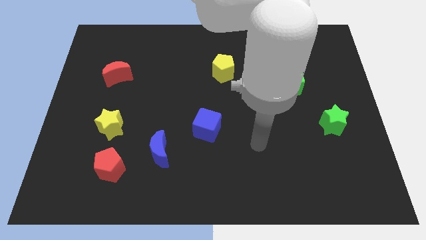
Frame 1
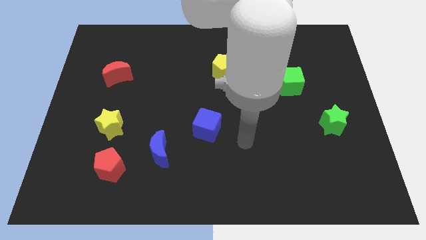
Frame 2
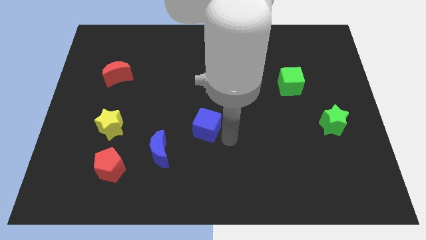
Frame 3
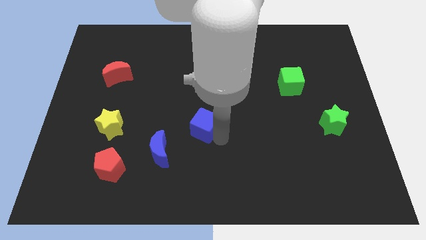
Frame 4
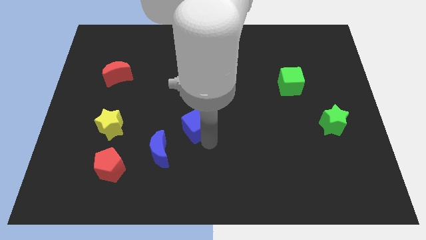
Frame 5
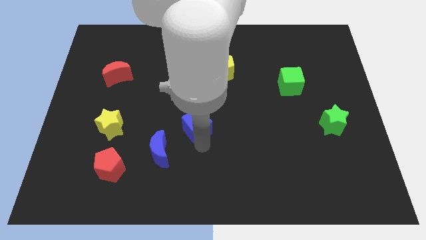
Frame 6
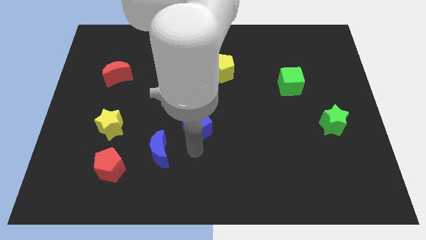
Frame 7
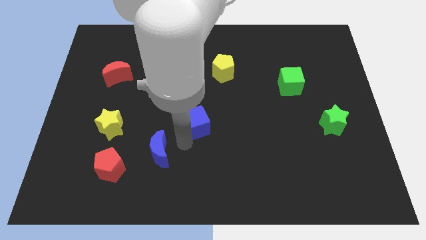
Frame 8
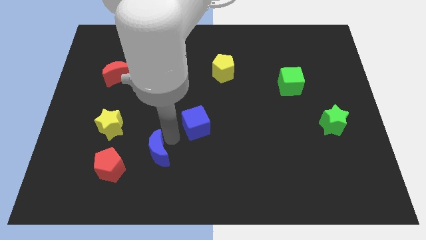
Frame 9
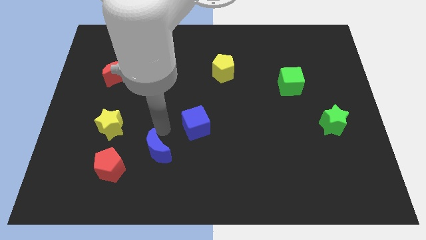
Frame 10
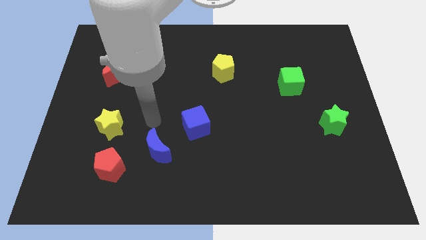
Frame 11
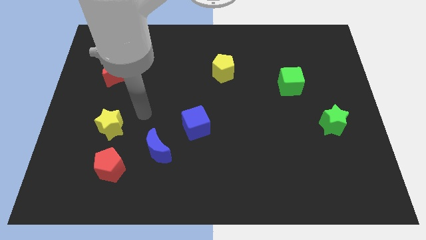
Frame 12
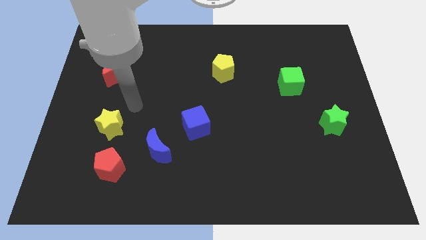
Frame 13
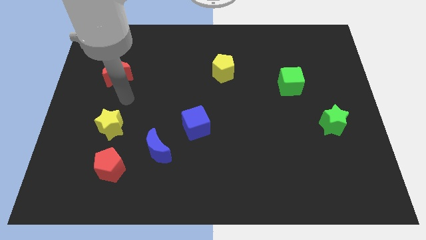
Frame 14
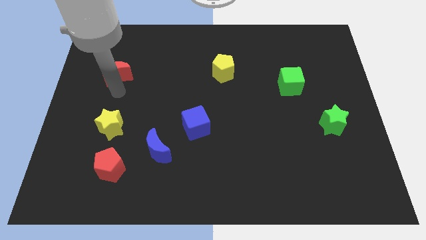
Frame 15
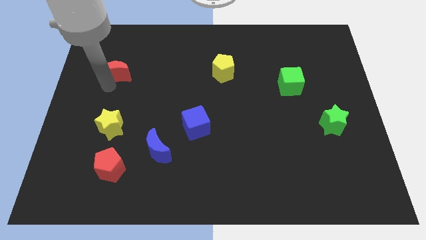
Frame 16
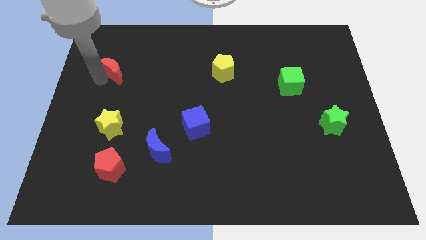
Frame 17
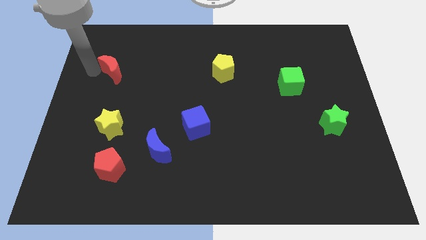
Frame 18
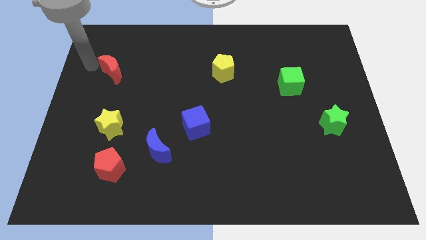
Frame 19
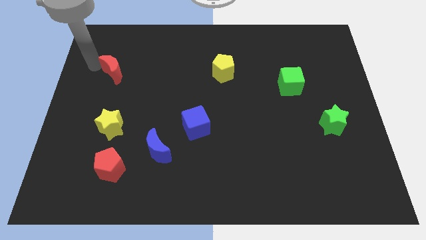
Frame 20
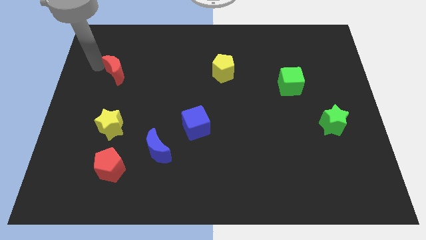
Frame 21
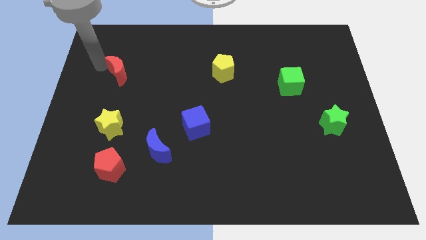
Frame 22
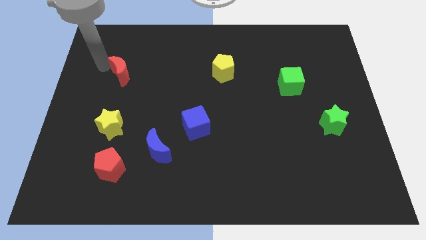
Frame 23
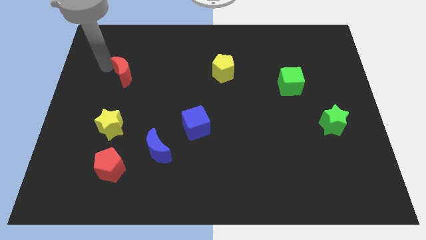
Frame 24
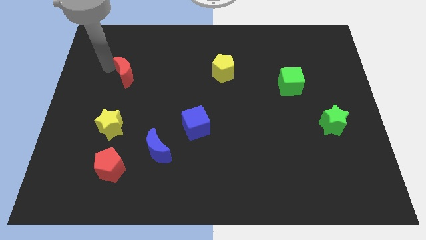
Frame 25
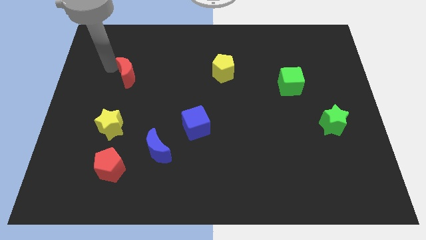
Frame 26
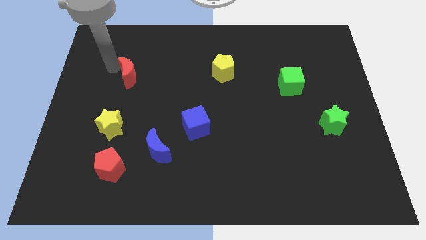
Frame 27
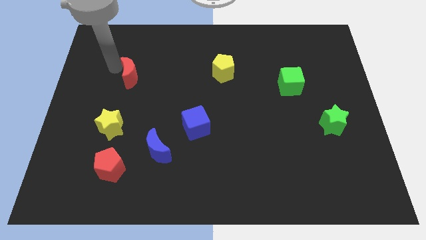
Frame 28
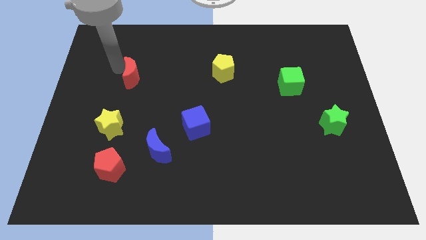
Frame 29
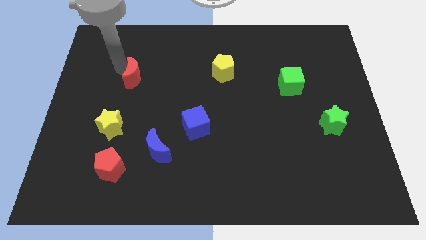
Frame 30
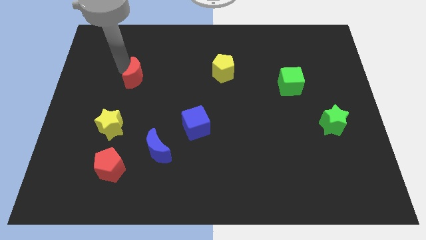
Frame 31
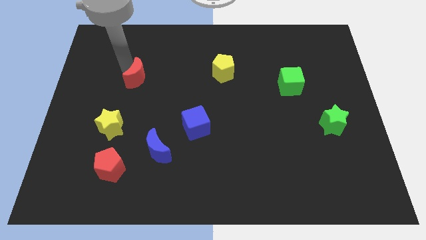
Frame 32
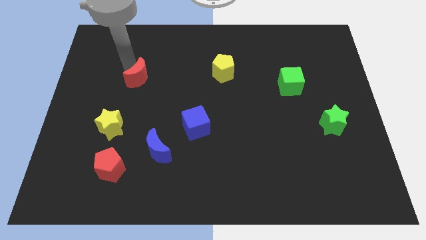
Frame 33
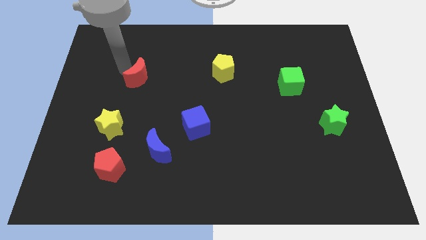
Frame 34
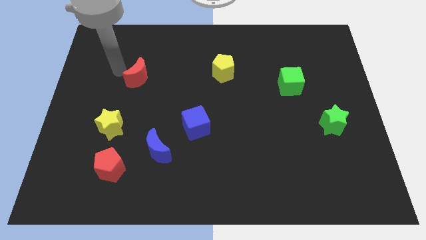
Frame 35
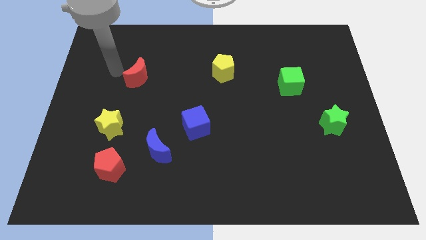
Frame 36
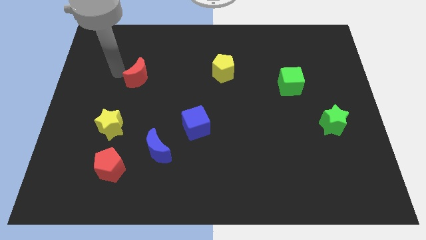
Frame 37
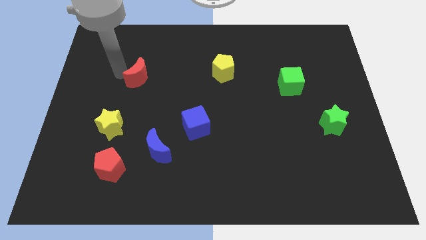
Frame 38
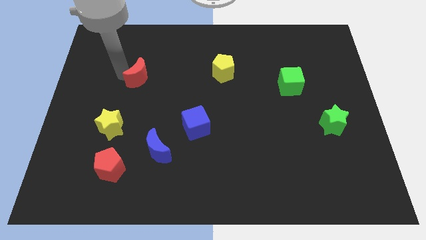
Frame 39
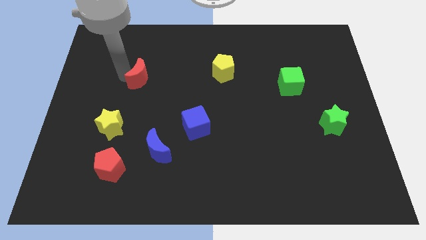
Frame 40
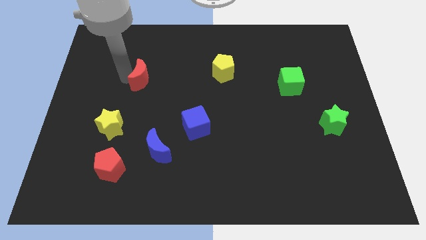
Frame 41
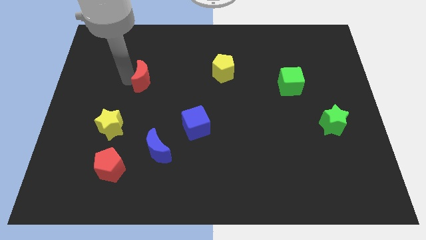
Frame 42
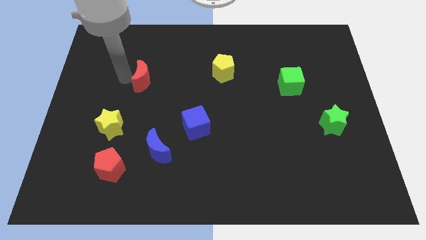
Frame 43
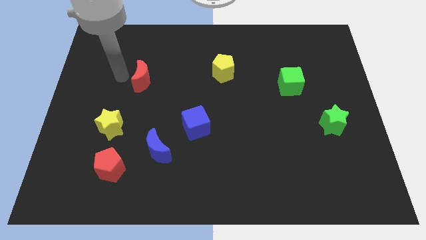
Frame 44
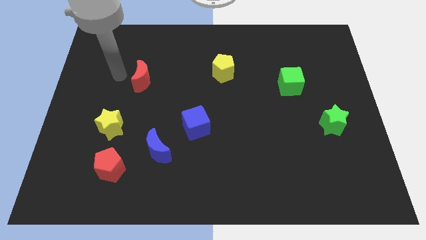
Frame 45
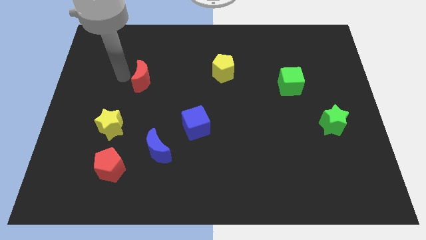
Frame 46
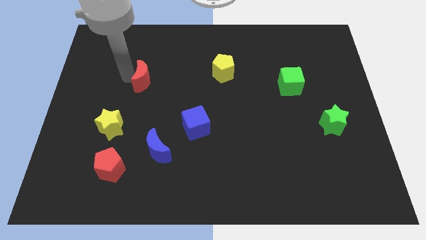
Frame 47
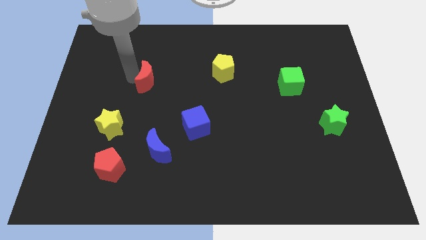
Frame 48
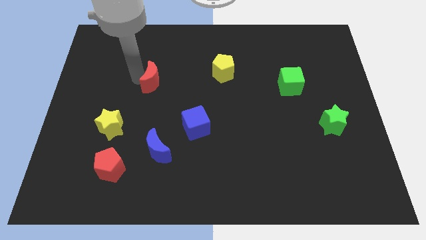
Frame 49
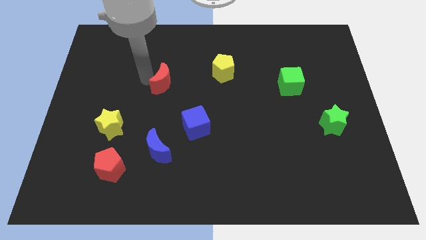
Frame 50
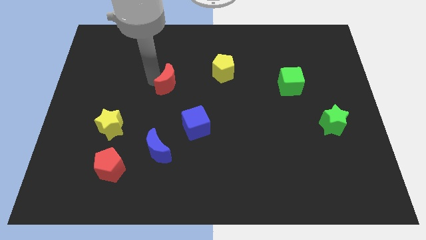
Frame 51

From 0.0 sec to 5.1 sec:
put the red moon to the center of the board

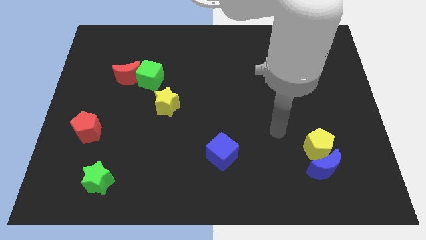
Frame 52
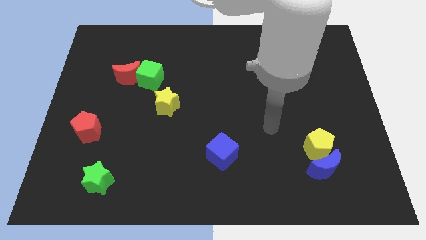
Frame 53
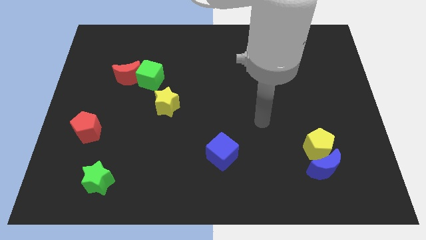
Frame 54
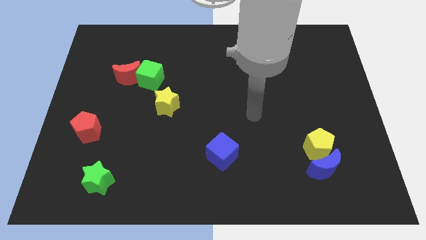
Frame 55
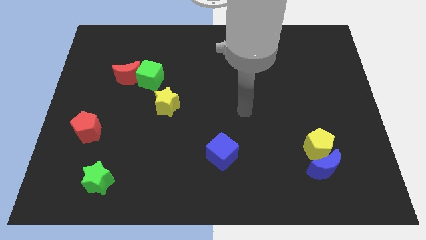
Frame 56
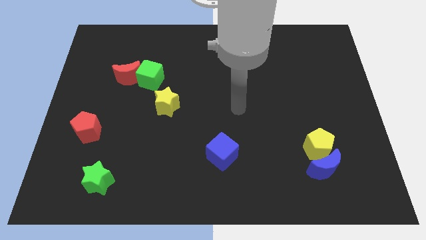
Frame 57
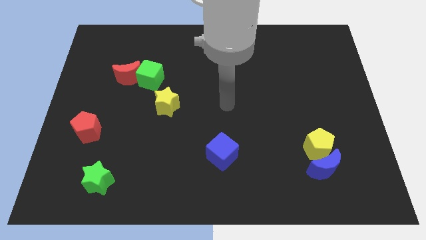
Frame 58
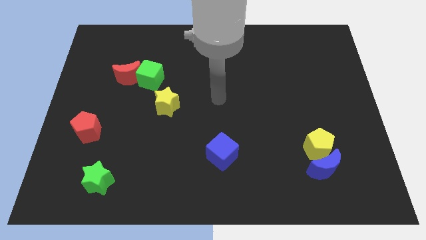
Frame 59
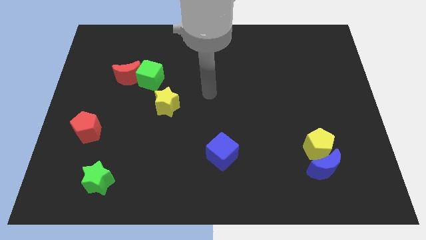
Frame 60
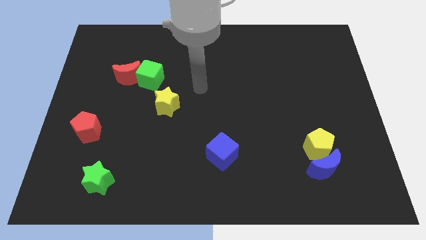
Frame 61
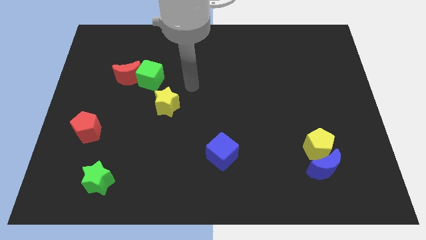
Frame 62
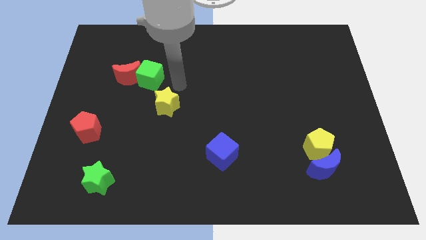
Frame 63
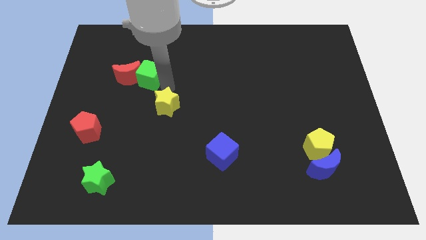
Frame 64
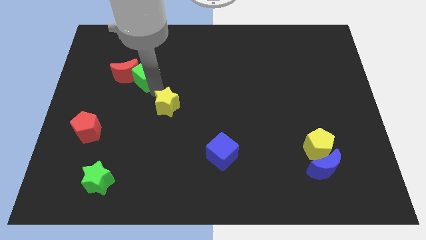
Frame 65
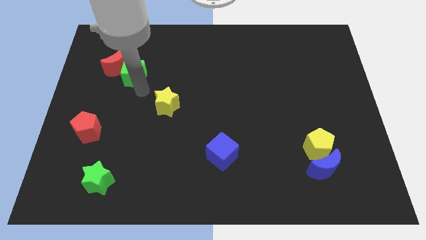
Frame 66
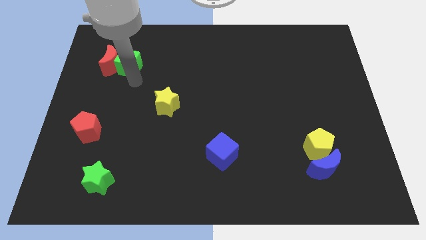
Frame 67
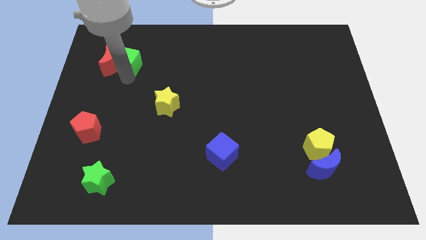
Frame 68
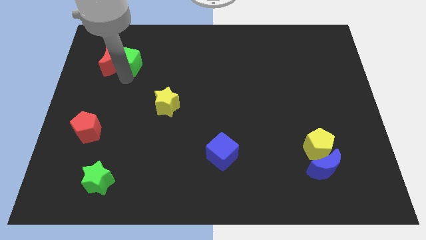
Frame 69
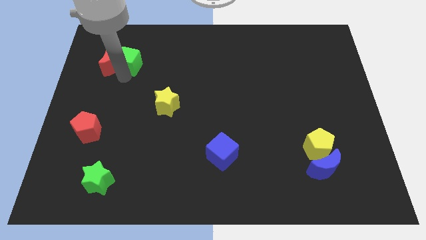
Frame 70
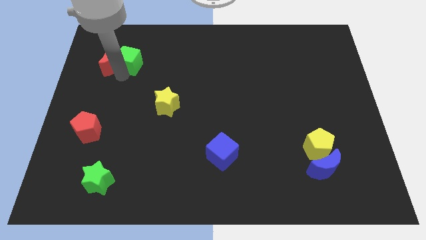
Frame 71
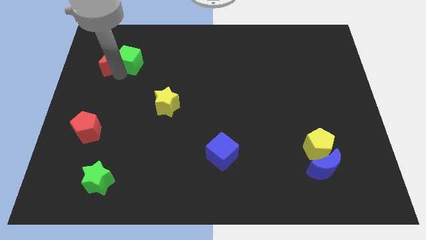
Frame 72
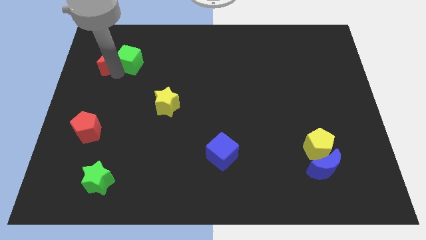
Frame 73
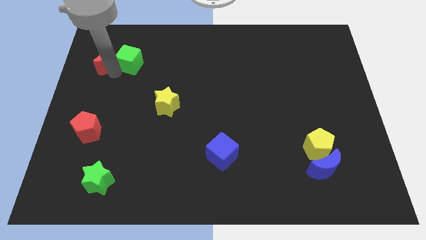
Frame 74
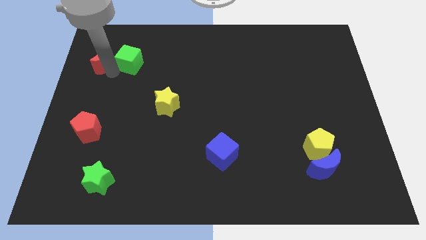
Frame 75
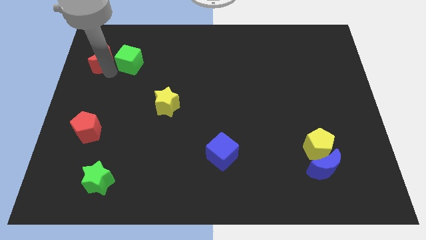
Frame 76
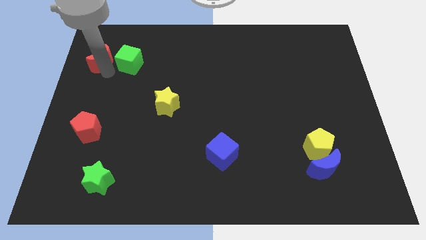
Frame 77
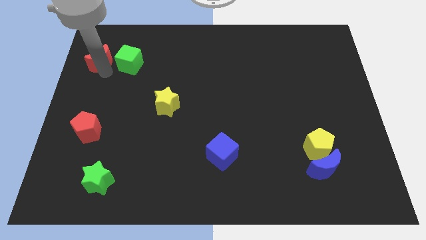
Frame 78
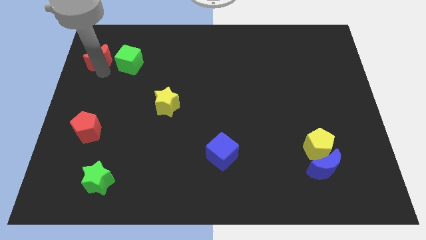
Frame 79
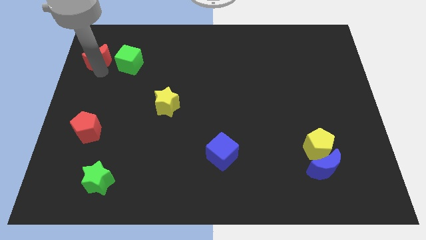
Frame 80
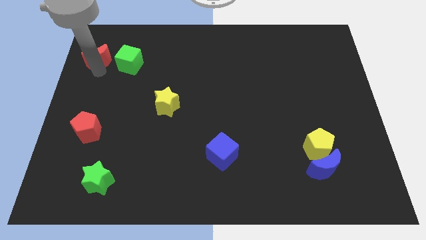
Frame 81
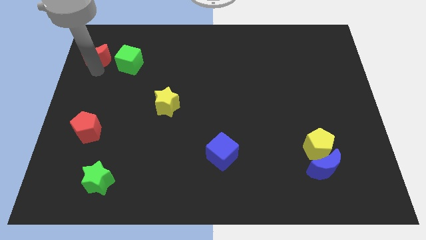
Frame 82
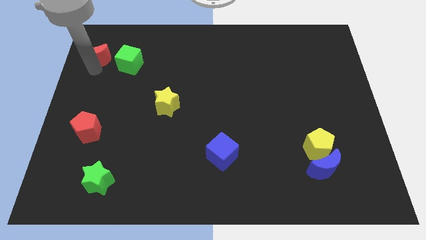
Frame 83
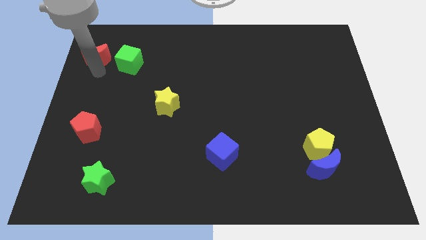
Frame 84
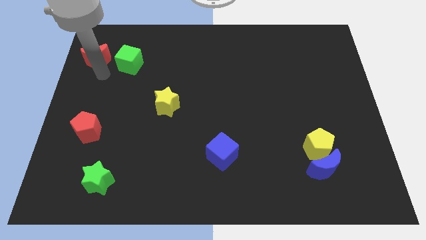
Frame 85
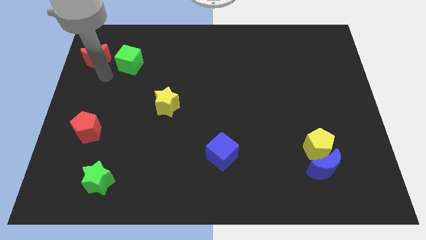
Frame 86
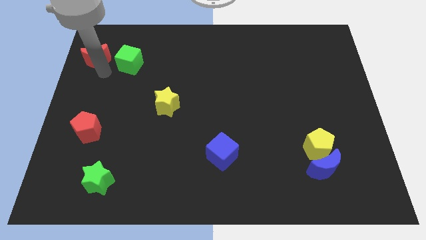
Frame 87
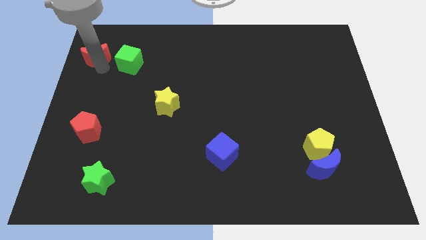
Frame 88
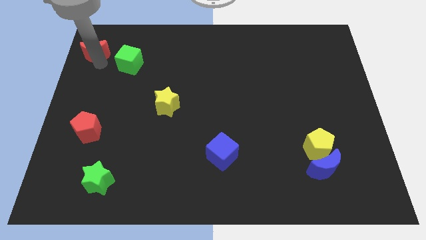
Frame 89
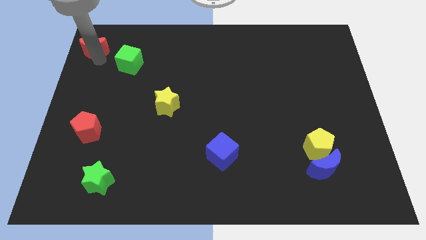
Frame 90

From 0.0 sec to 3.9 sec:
put the red moon to the top left corner
